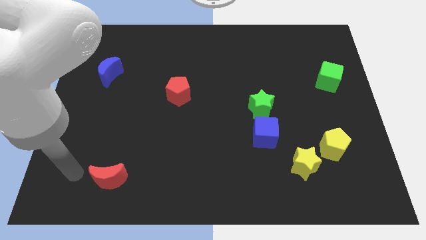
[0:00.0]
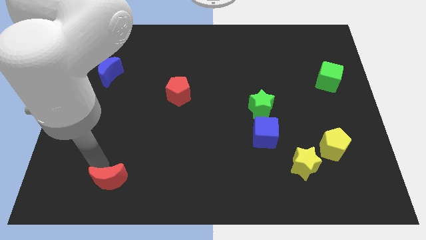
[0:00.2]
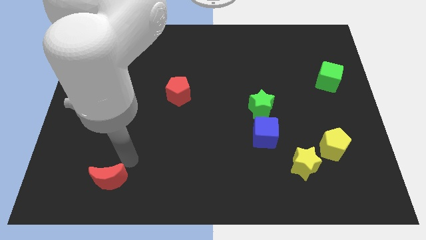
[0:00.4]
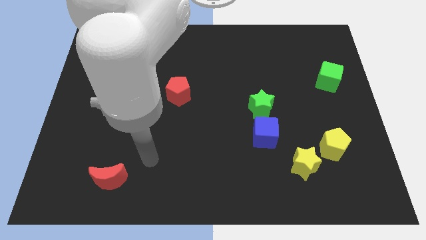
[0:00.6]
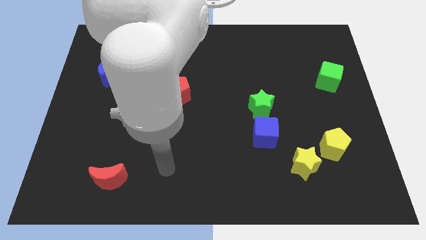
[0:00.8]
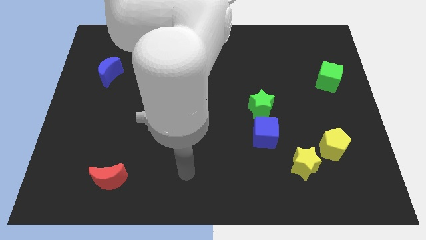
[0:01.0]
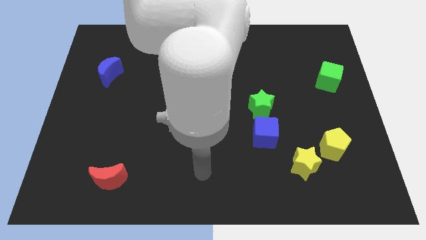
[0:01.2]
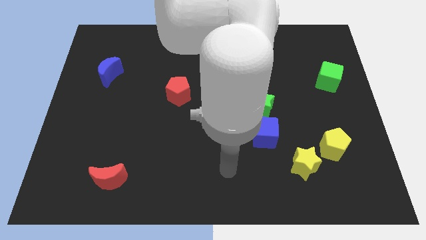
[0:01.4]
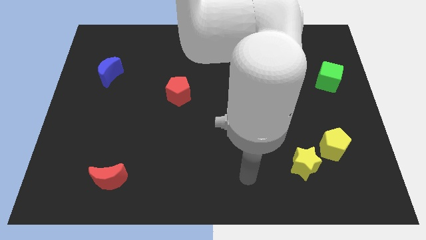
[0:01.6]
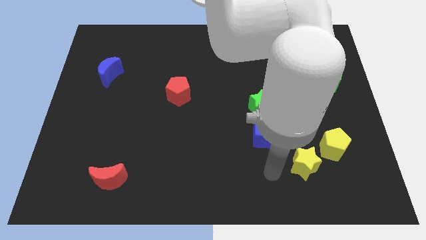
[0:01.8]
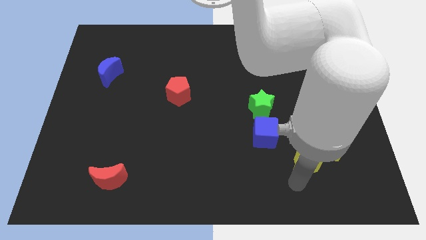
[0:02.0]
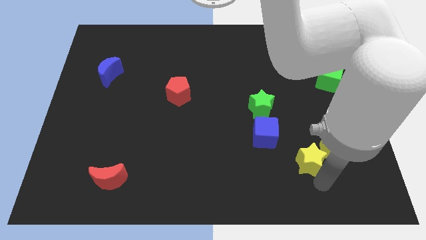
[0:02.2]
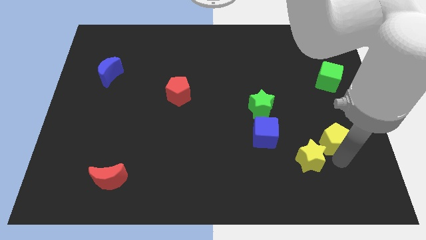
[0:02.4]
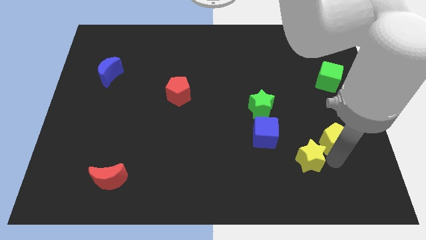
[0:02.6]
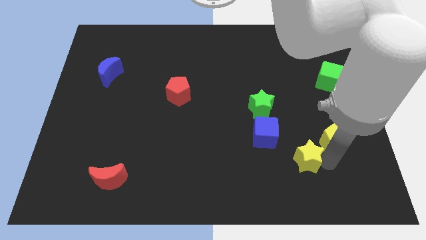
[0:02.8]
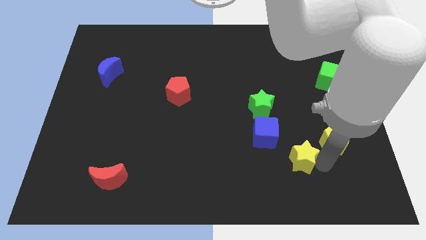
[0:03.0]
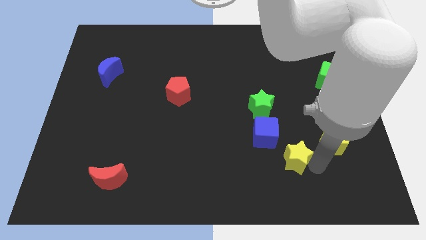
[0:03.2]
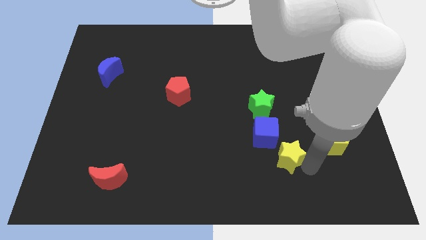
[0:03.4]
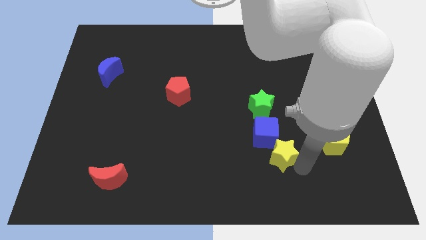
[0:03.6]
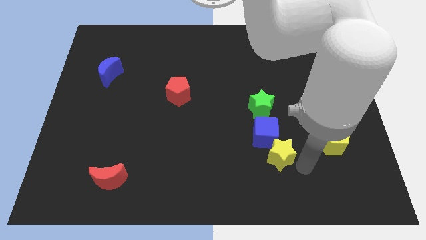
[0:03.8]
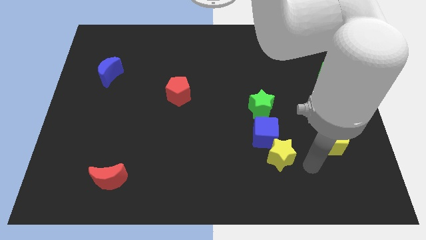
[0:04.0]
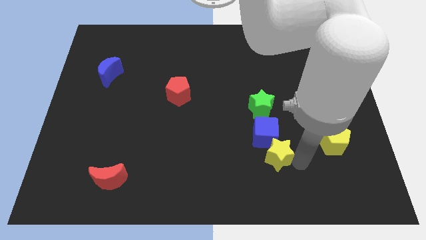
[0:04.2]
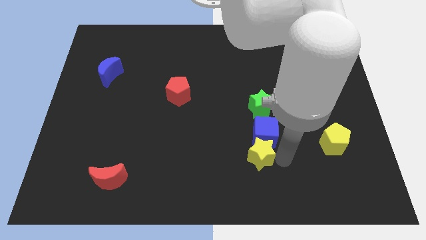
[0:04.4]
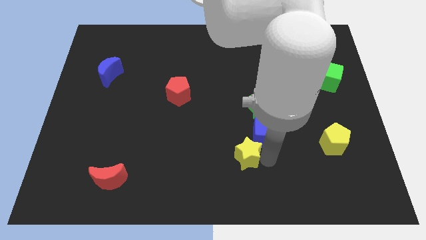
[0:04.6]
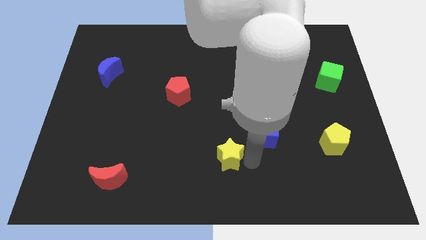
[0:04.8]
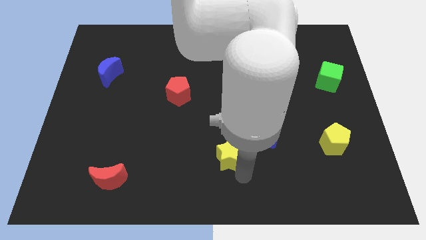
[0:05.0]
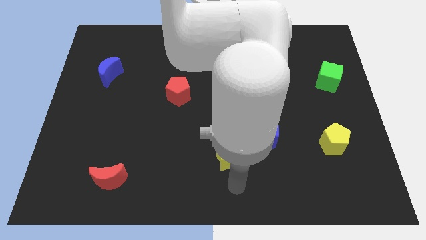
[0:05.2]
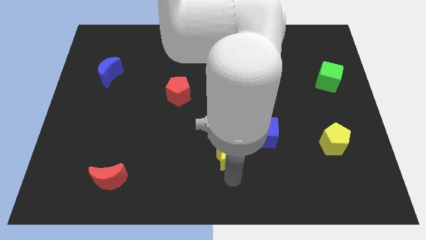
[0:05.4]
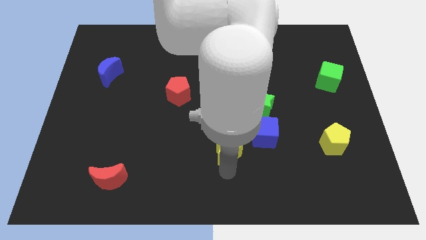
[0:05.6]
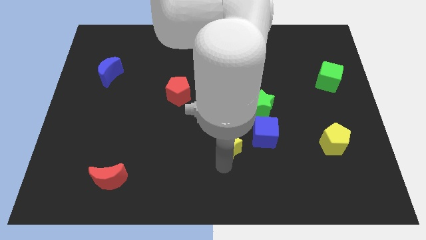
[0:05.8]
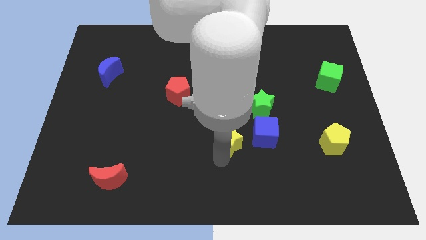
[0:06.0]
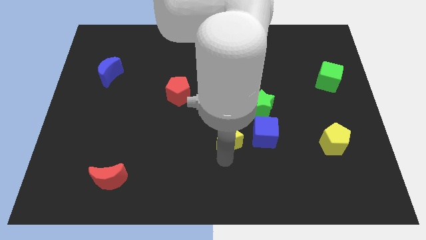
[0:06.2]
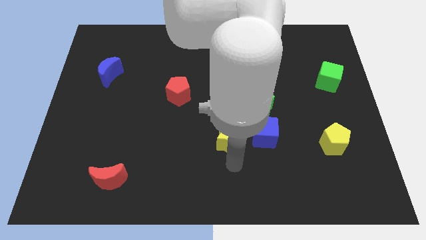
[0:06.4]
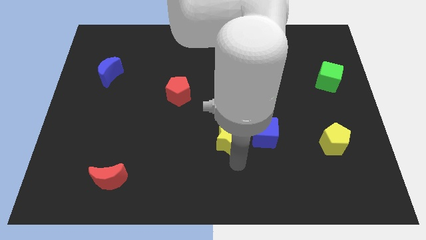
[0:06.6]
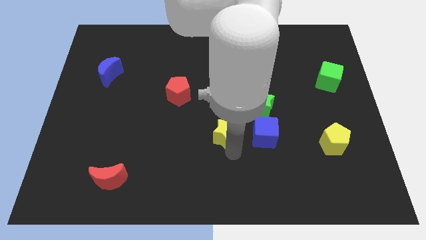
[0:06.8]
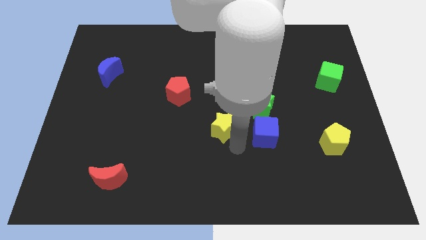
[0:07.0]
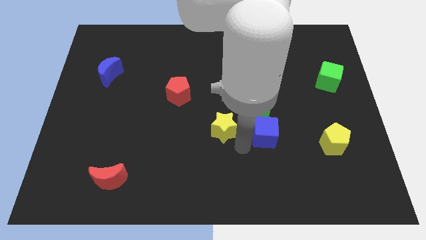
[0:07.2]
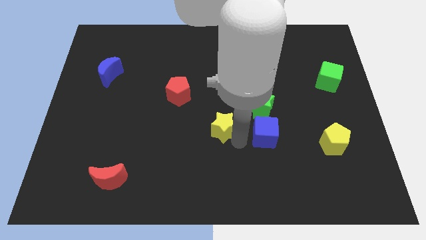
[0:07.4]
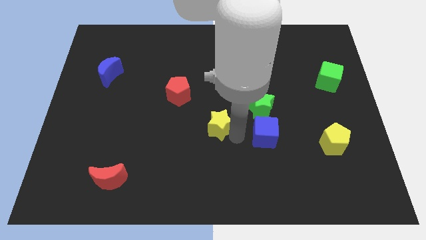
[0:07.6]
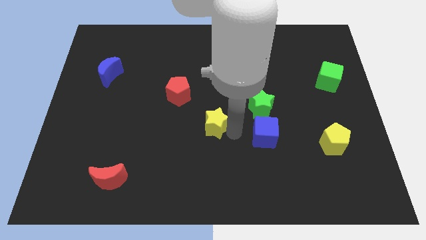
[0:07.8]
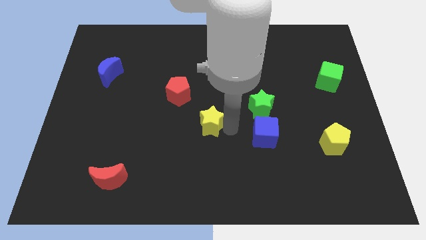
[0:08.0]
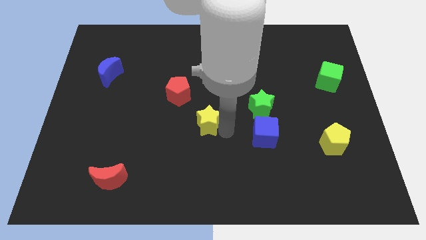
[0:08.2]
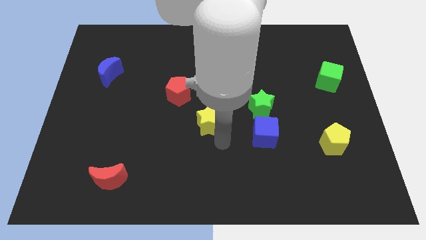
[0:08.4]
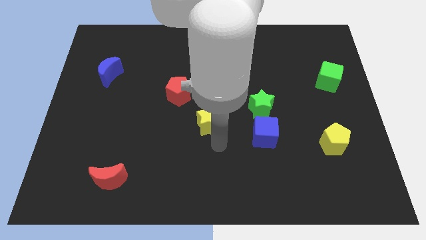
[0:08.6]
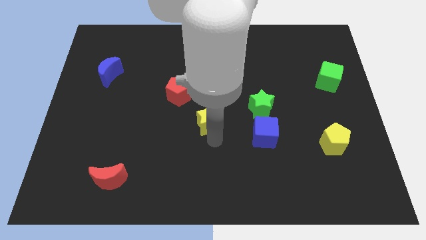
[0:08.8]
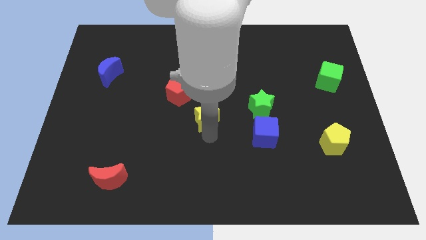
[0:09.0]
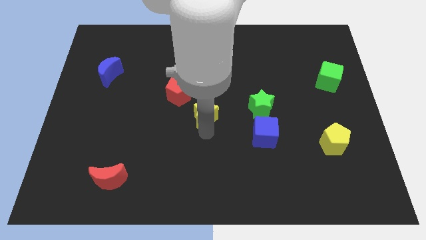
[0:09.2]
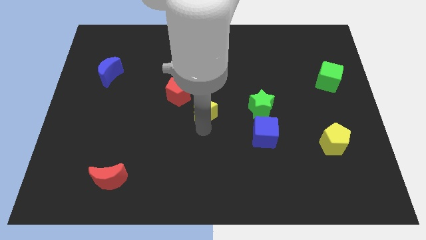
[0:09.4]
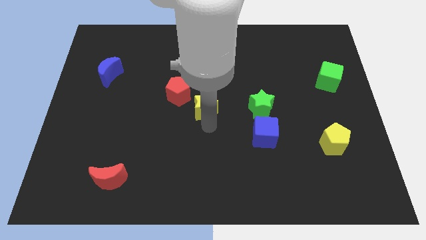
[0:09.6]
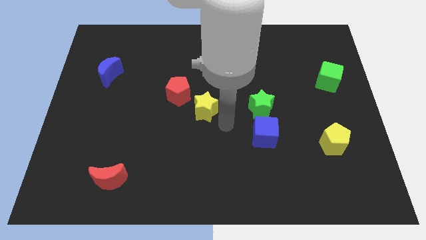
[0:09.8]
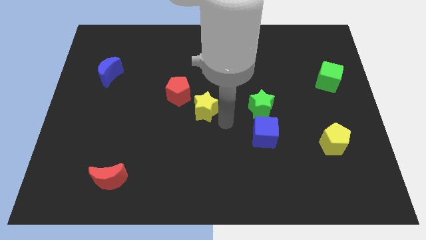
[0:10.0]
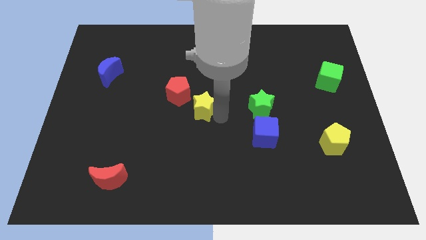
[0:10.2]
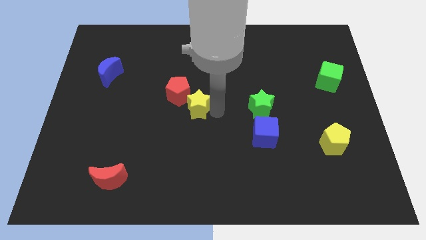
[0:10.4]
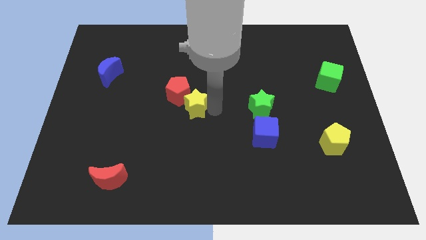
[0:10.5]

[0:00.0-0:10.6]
put the yellow star next to the red pentagon

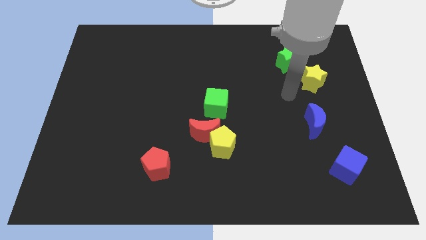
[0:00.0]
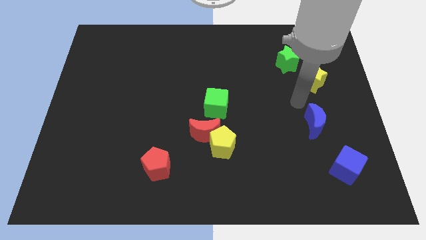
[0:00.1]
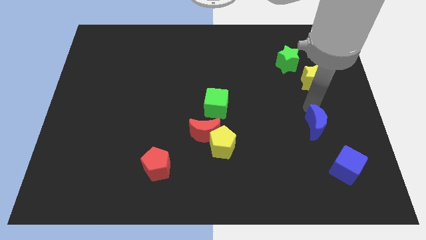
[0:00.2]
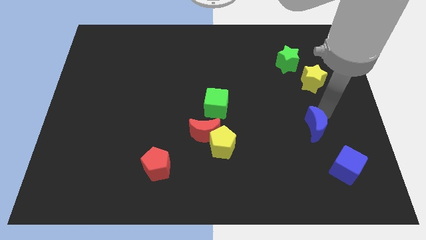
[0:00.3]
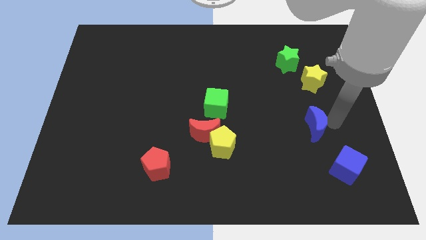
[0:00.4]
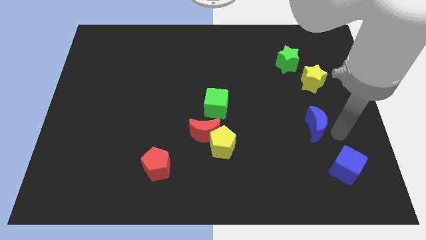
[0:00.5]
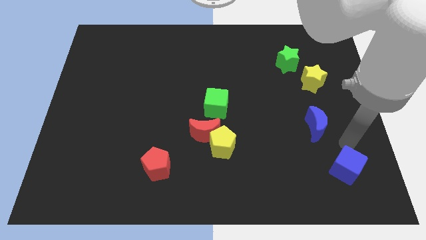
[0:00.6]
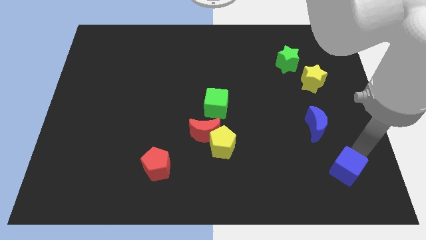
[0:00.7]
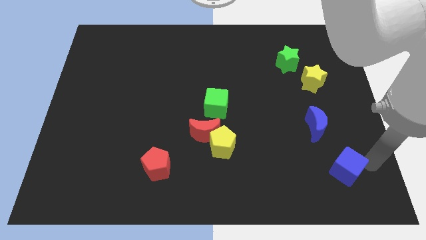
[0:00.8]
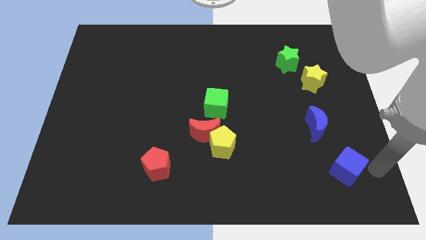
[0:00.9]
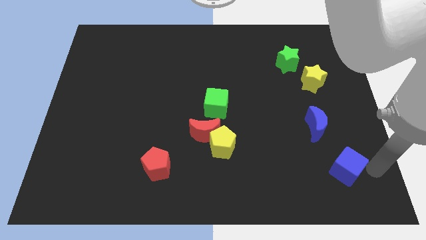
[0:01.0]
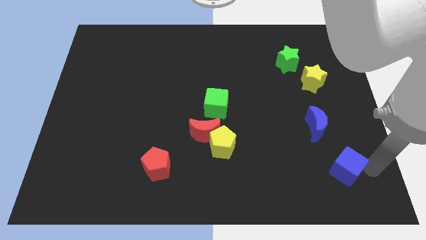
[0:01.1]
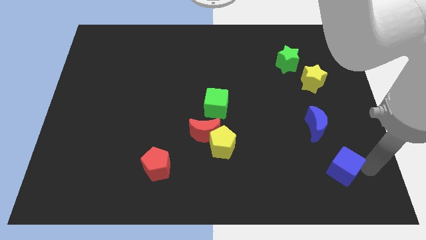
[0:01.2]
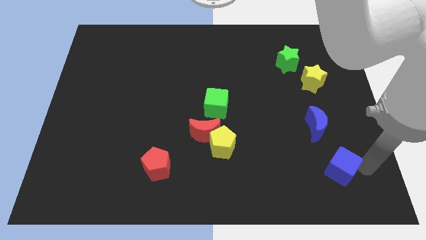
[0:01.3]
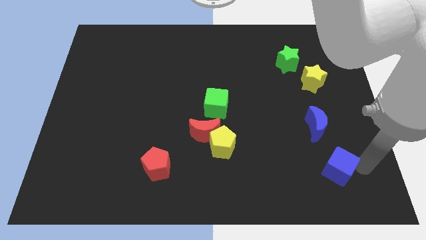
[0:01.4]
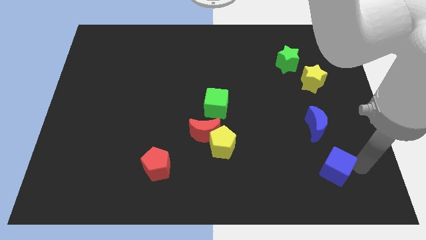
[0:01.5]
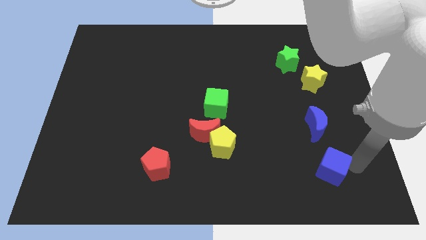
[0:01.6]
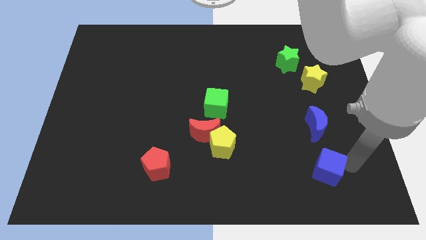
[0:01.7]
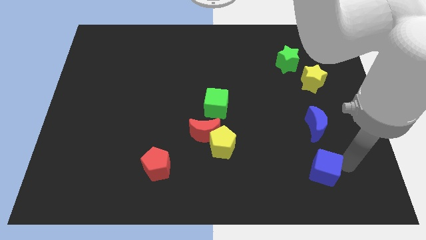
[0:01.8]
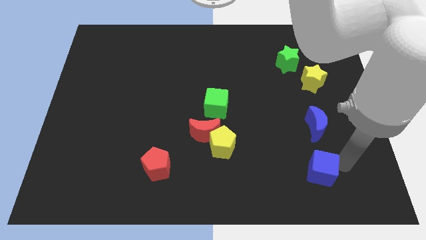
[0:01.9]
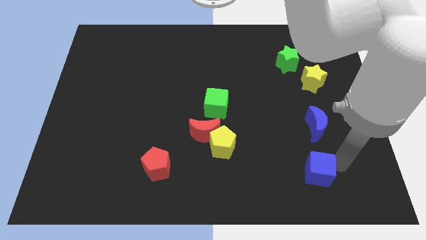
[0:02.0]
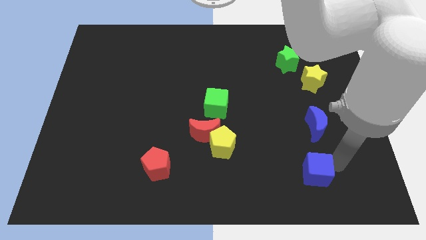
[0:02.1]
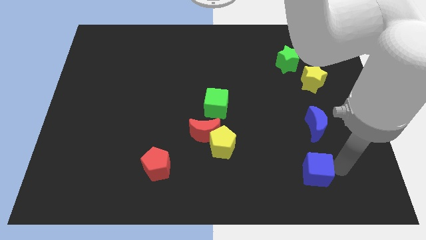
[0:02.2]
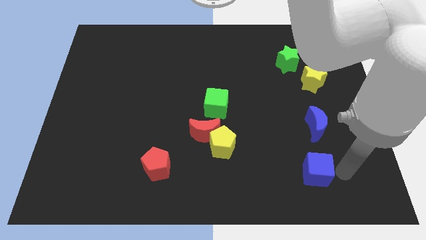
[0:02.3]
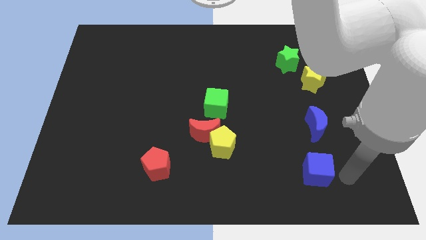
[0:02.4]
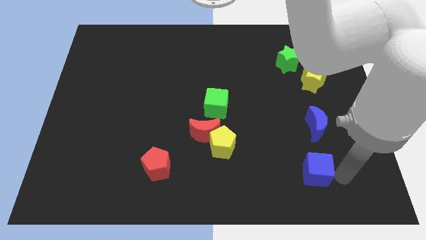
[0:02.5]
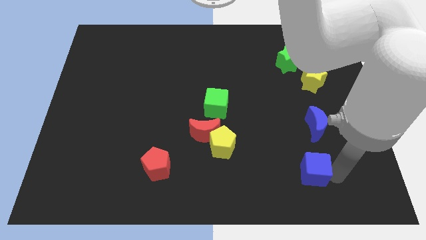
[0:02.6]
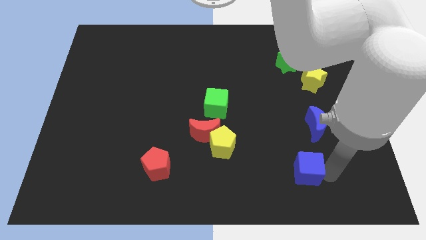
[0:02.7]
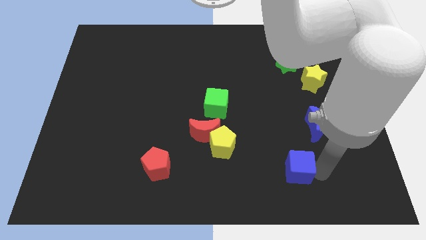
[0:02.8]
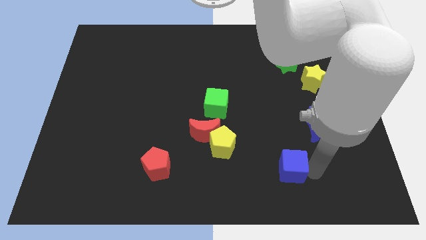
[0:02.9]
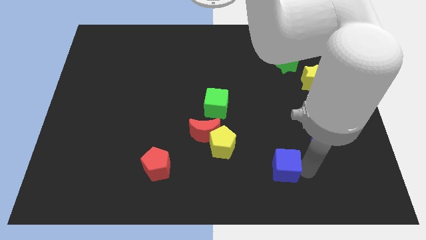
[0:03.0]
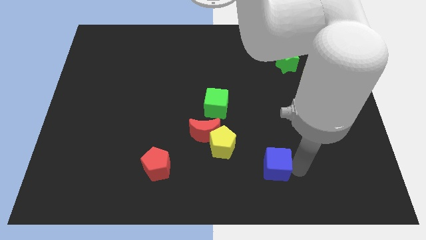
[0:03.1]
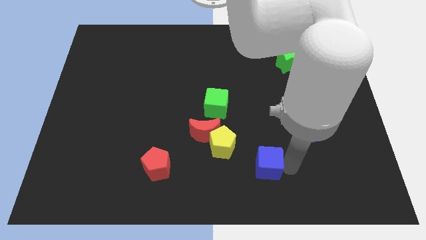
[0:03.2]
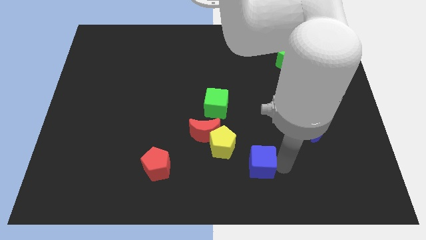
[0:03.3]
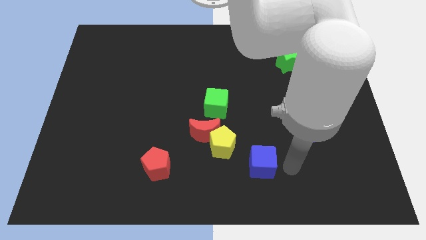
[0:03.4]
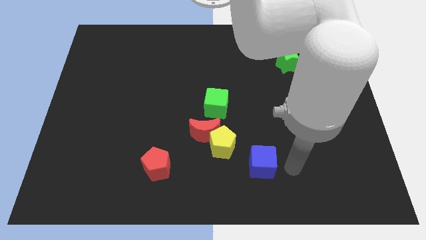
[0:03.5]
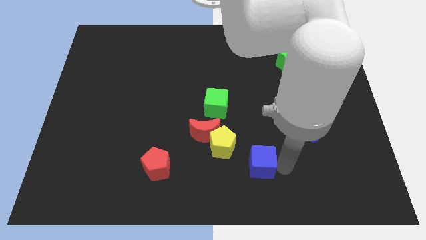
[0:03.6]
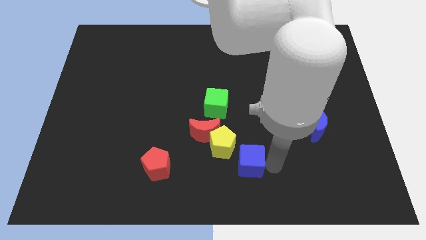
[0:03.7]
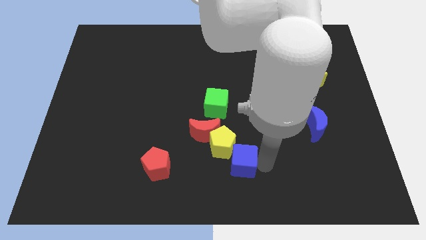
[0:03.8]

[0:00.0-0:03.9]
push the blue cube towards the yellow pentagon
